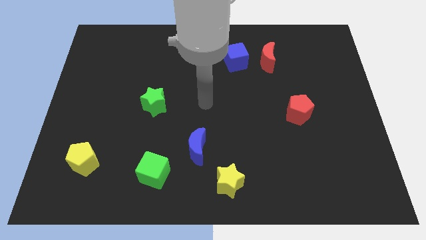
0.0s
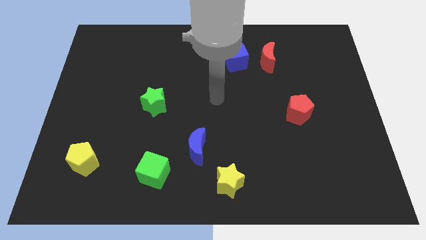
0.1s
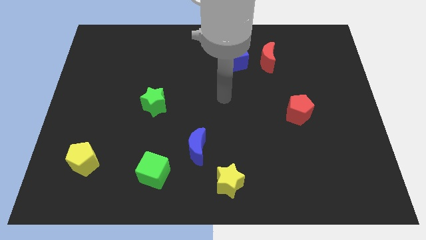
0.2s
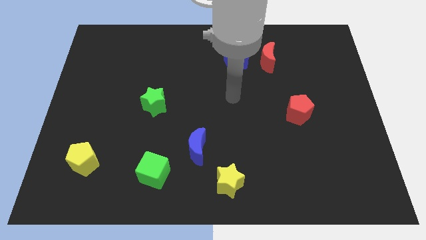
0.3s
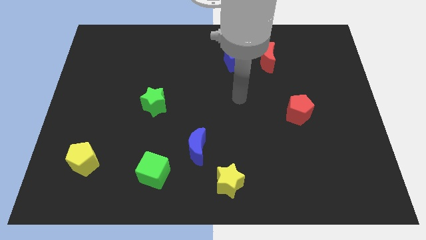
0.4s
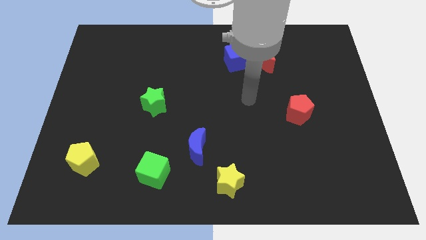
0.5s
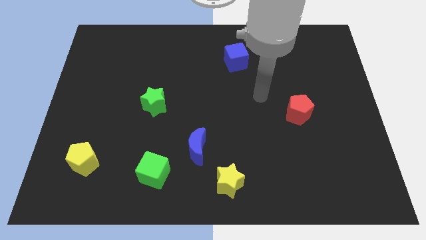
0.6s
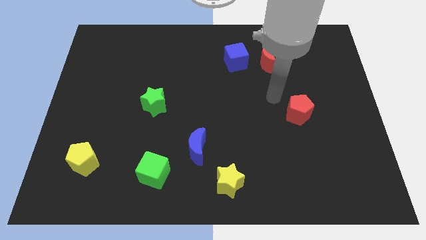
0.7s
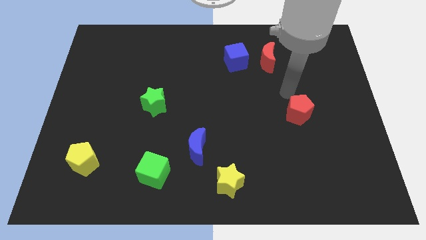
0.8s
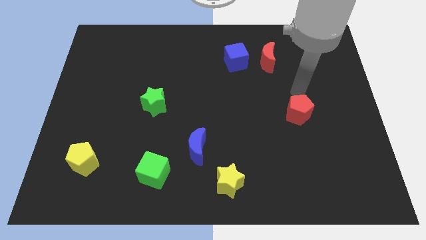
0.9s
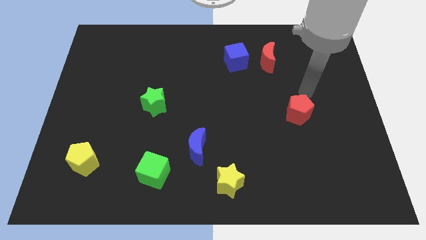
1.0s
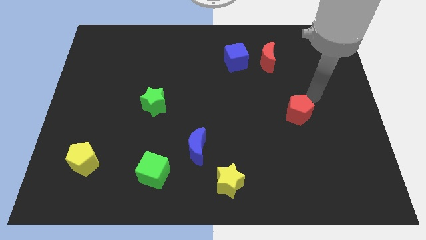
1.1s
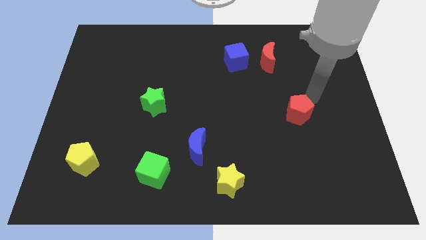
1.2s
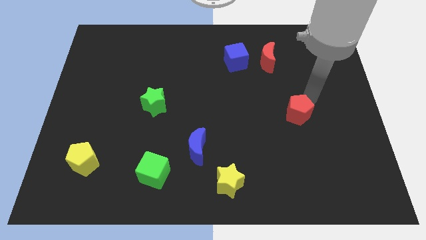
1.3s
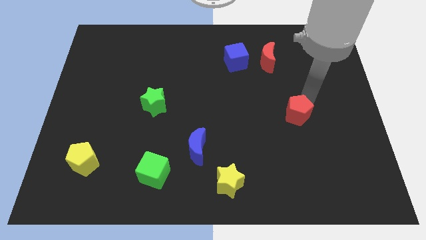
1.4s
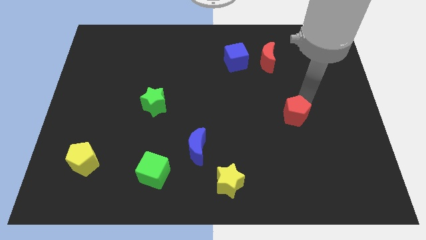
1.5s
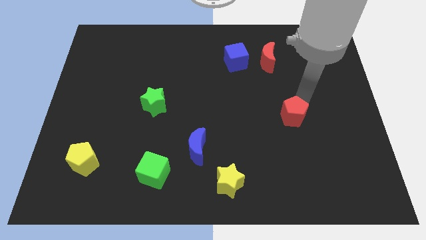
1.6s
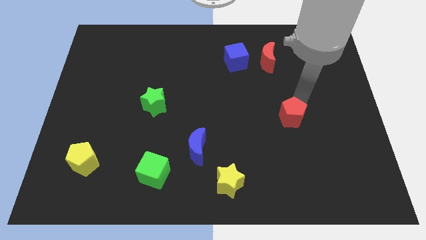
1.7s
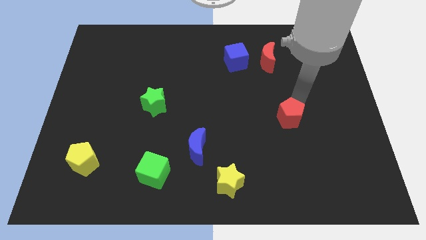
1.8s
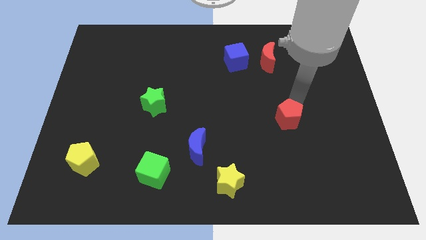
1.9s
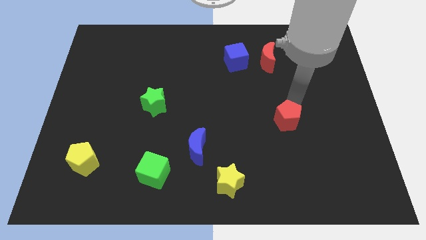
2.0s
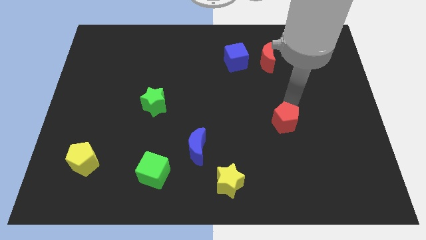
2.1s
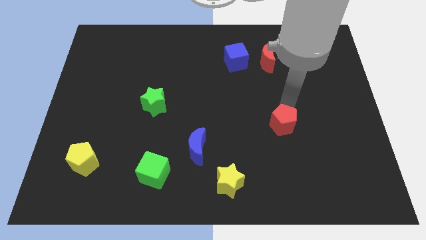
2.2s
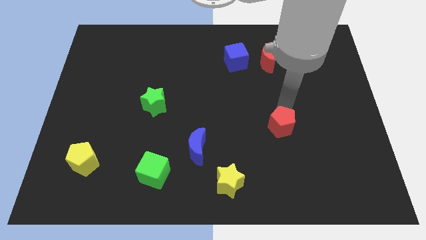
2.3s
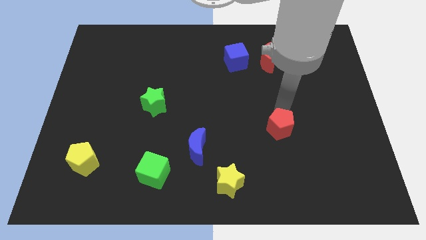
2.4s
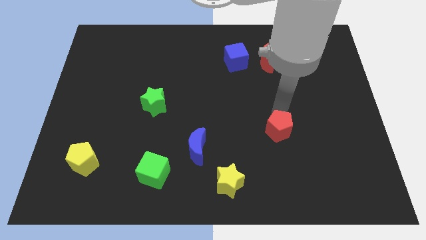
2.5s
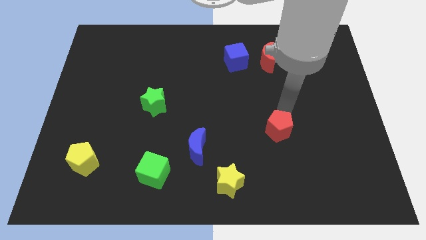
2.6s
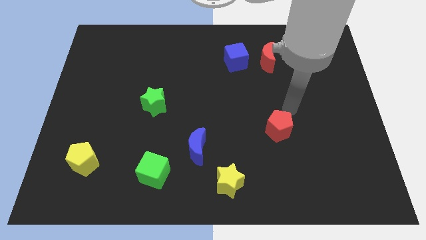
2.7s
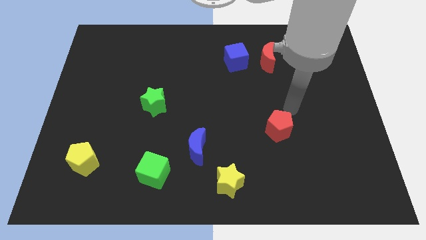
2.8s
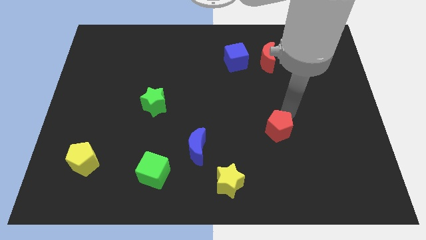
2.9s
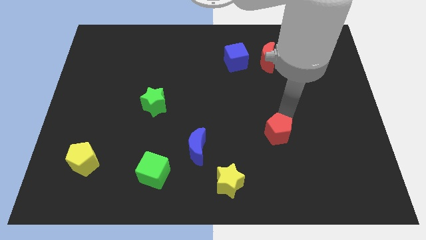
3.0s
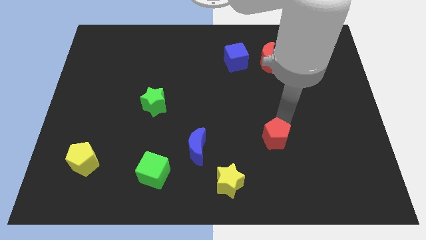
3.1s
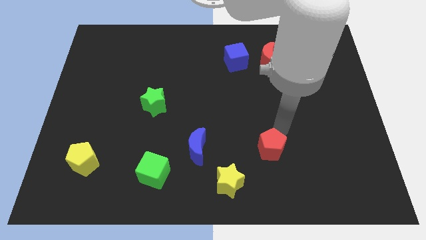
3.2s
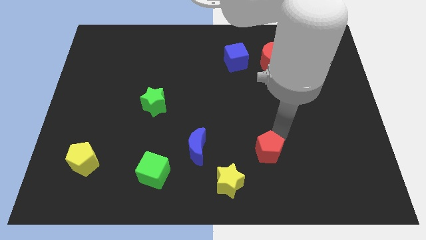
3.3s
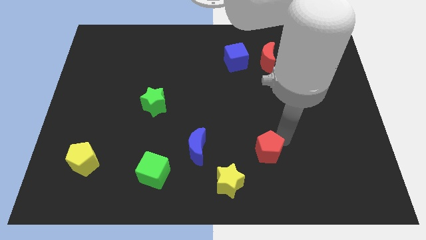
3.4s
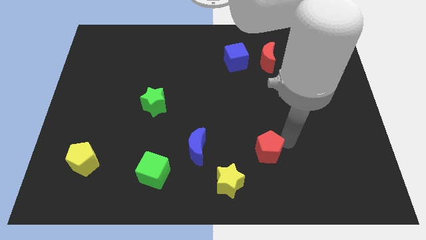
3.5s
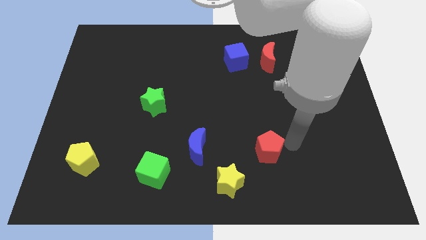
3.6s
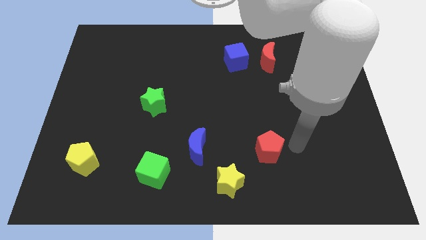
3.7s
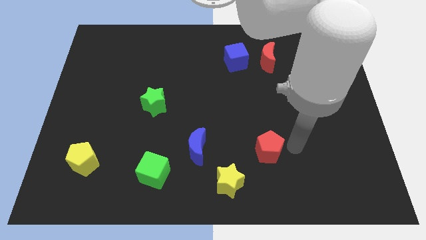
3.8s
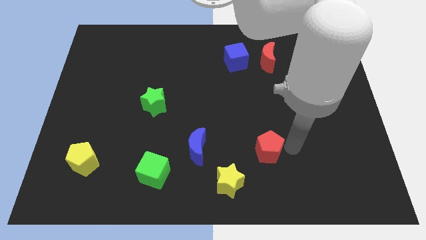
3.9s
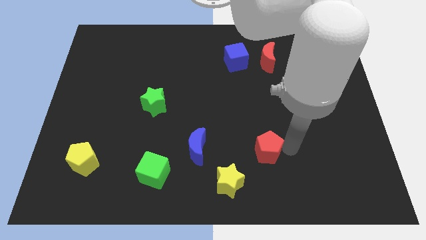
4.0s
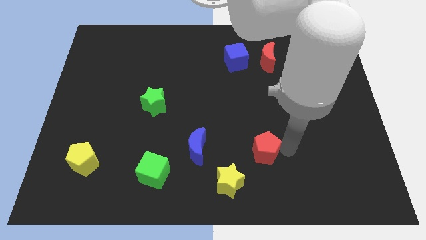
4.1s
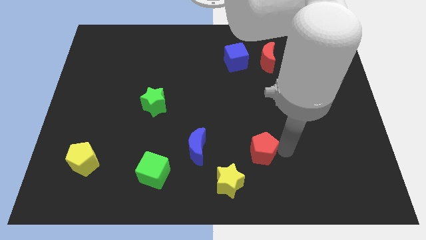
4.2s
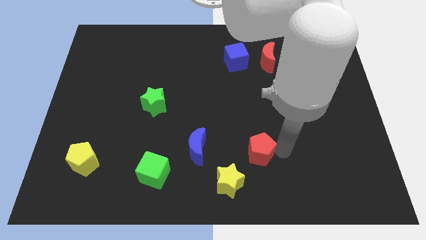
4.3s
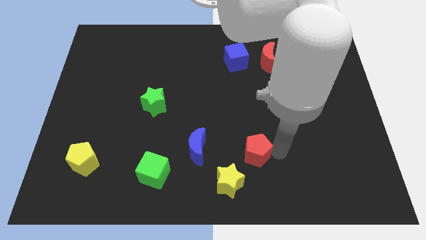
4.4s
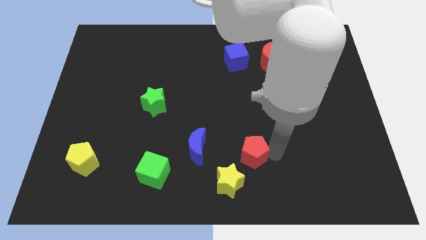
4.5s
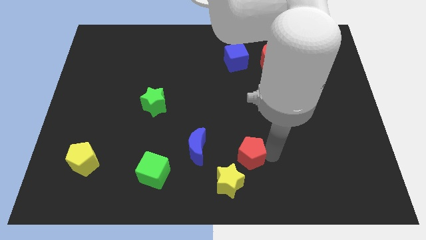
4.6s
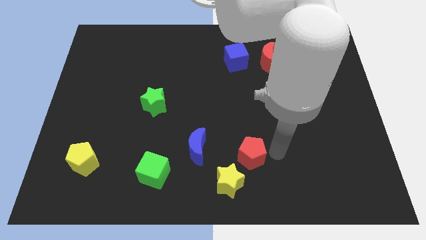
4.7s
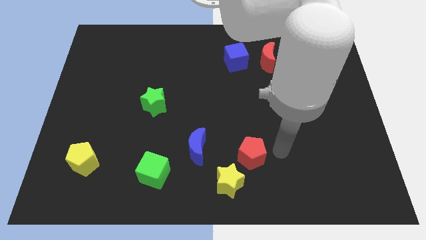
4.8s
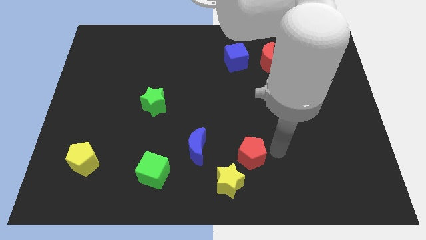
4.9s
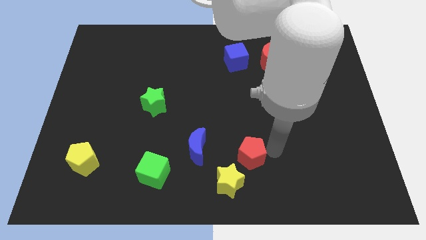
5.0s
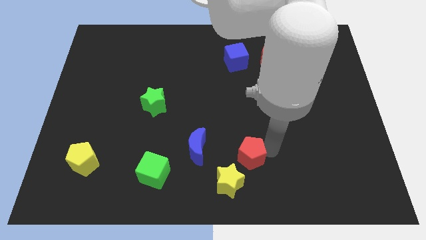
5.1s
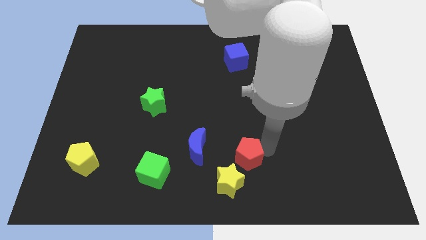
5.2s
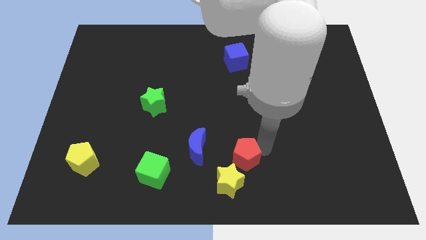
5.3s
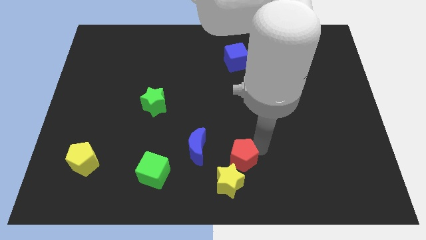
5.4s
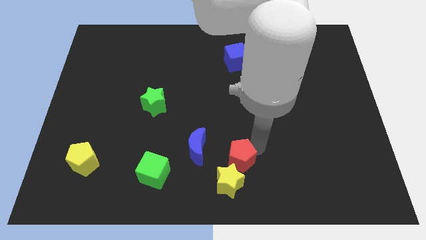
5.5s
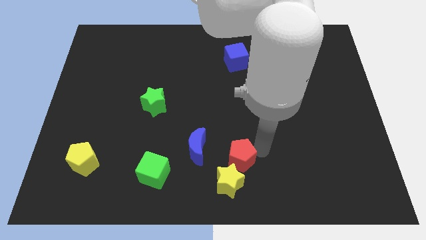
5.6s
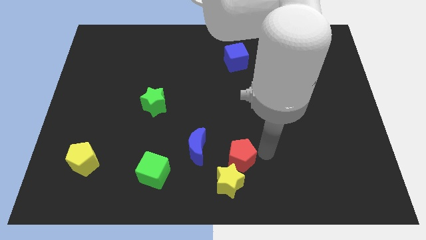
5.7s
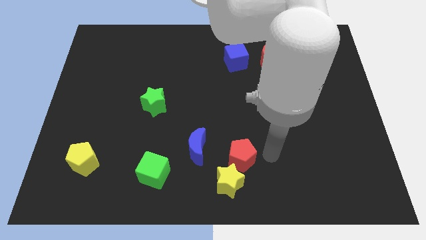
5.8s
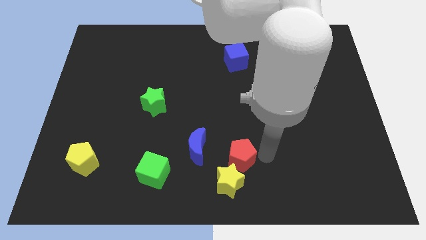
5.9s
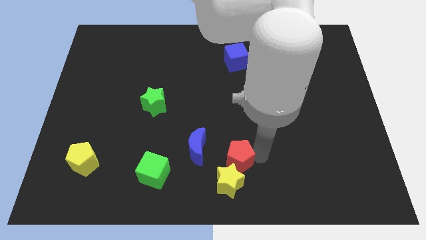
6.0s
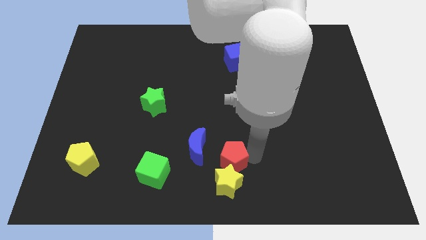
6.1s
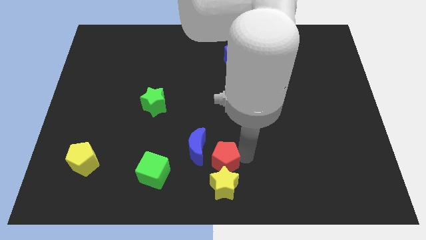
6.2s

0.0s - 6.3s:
slide the red pentagon to the right of the green cube
